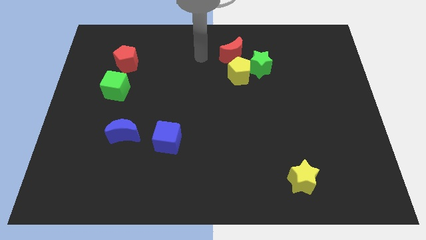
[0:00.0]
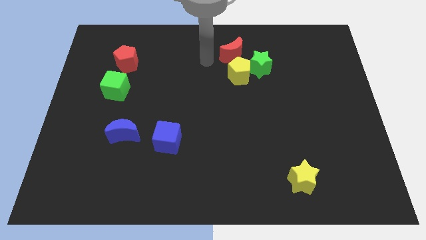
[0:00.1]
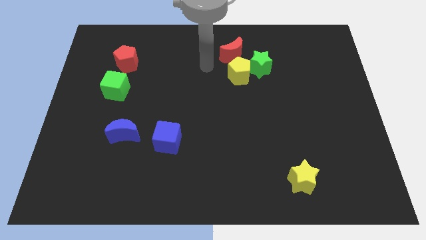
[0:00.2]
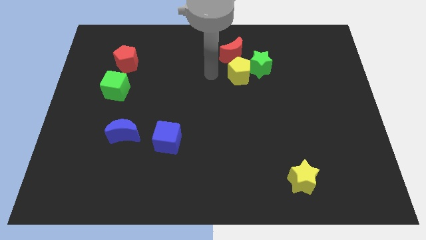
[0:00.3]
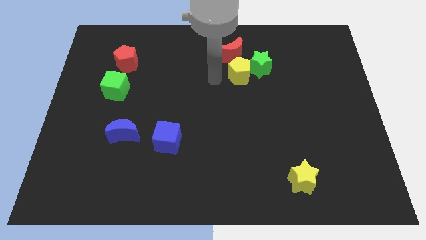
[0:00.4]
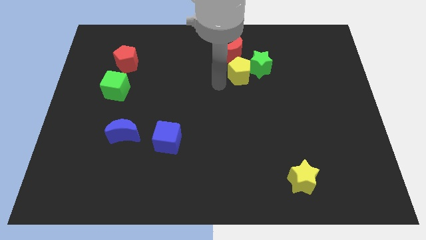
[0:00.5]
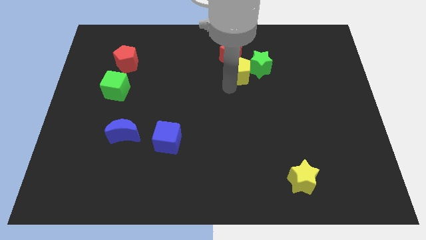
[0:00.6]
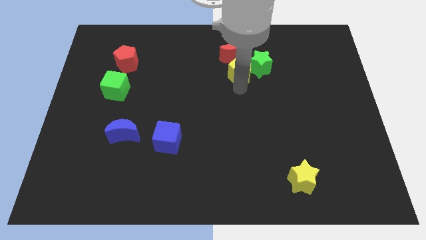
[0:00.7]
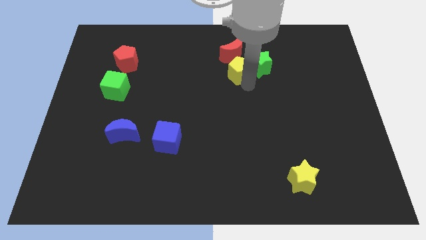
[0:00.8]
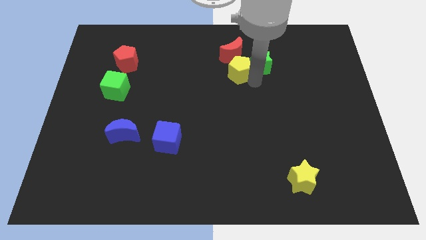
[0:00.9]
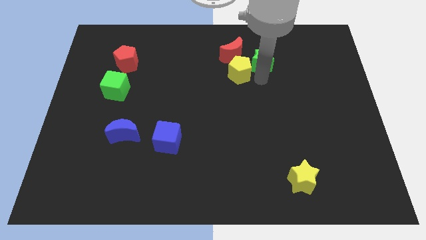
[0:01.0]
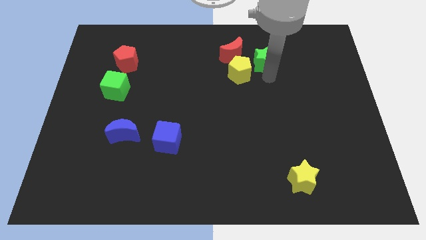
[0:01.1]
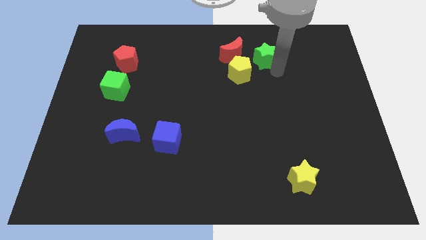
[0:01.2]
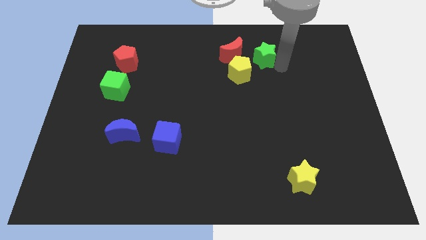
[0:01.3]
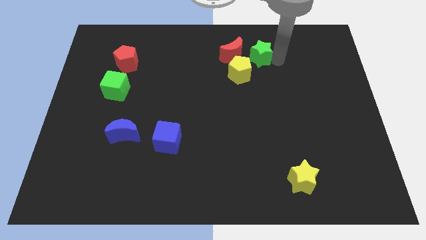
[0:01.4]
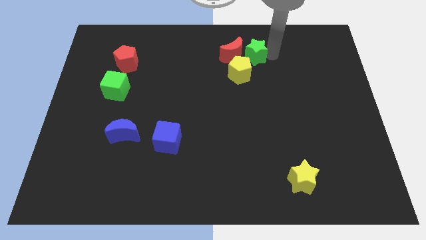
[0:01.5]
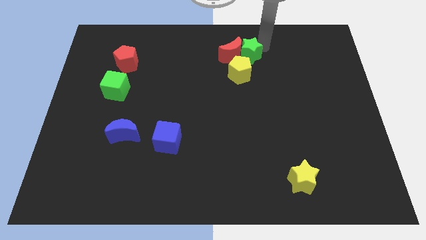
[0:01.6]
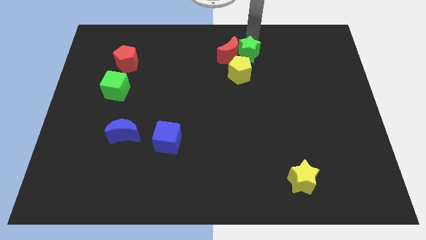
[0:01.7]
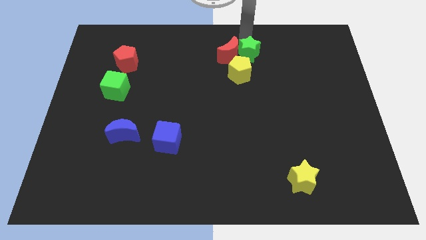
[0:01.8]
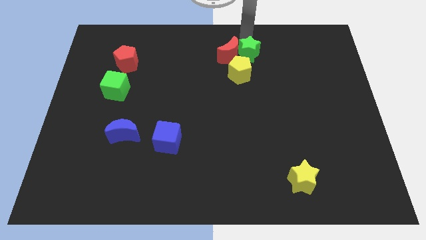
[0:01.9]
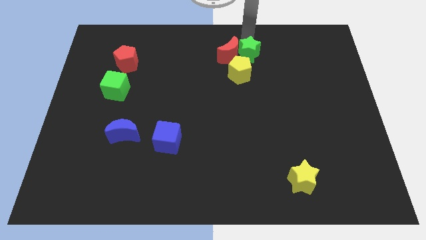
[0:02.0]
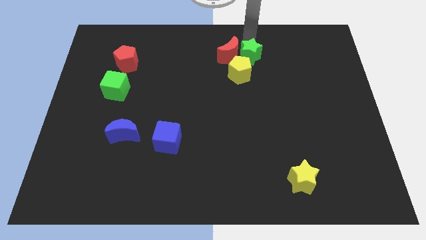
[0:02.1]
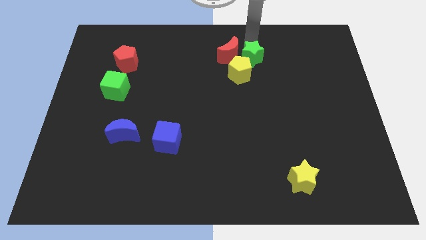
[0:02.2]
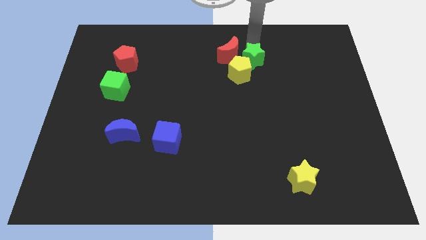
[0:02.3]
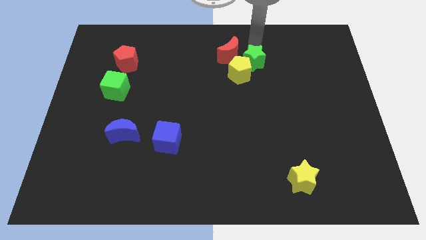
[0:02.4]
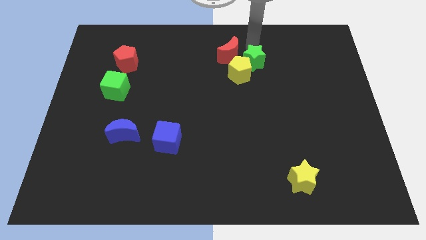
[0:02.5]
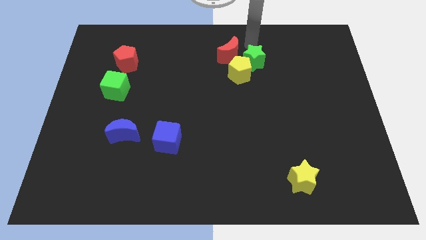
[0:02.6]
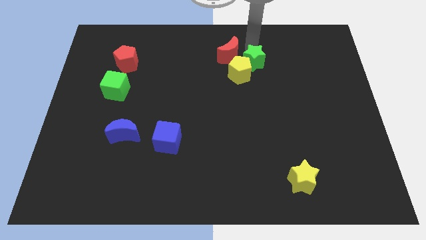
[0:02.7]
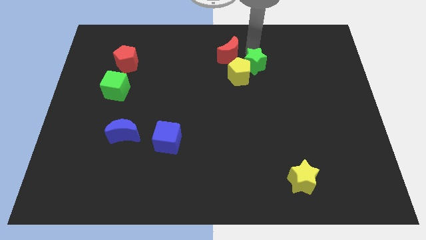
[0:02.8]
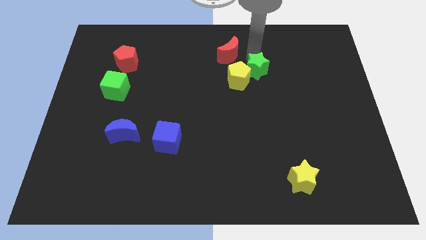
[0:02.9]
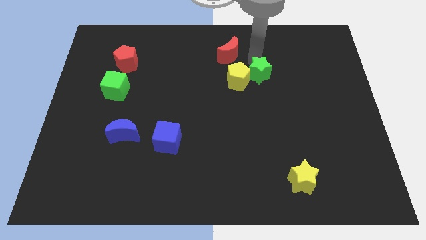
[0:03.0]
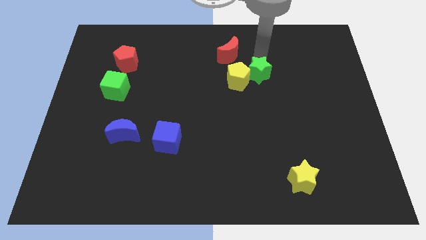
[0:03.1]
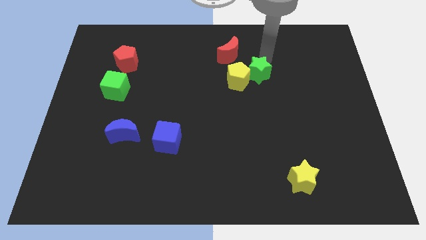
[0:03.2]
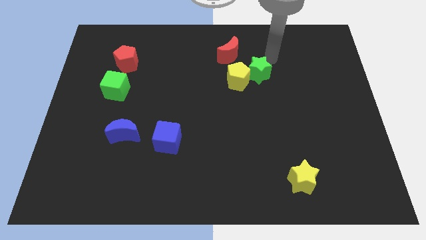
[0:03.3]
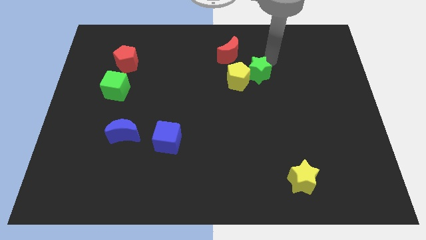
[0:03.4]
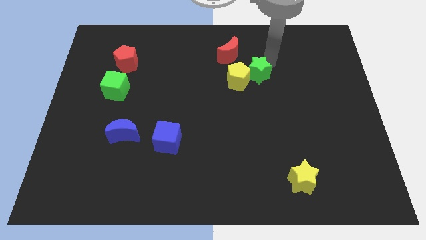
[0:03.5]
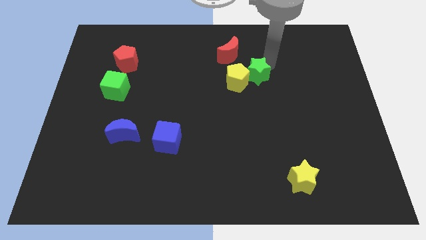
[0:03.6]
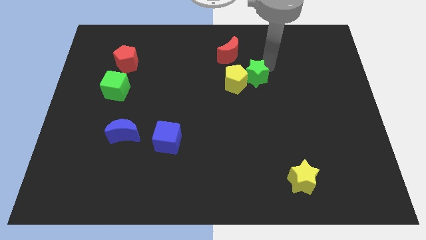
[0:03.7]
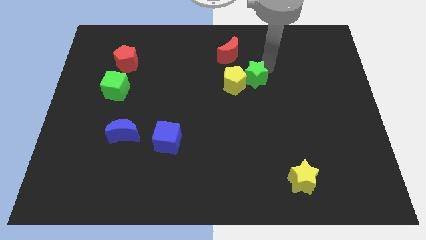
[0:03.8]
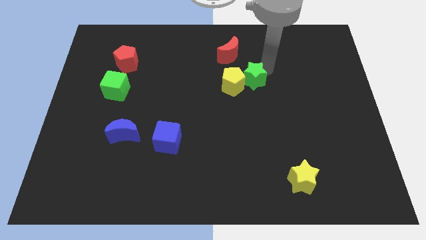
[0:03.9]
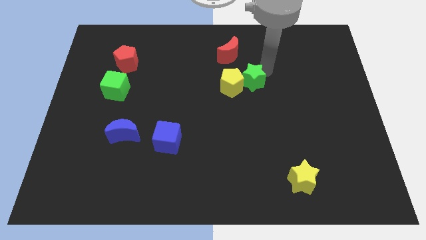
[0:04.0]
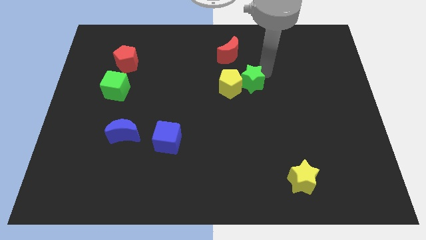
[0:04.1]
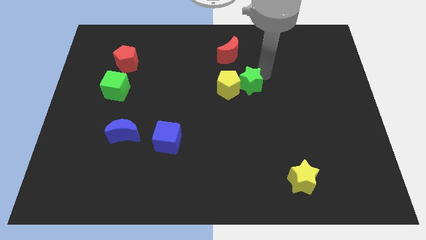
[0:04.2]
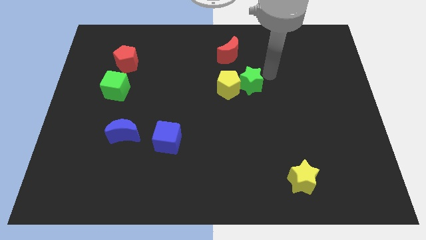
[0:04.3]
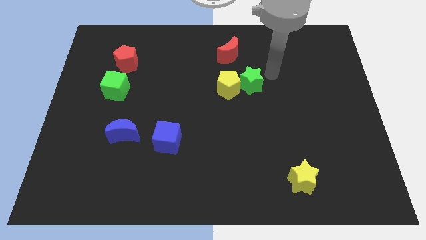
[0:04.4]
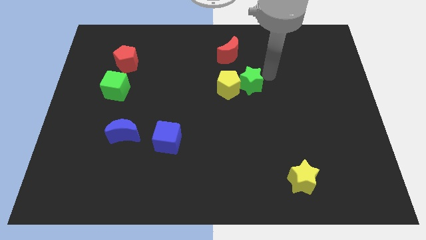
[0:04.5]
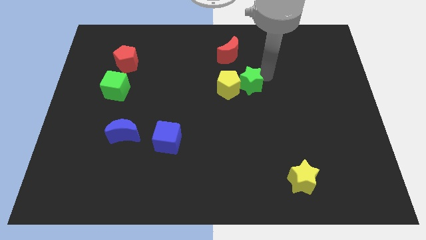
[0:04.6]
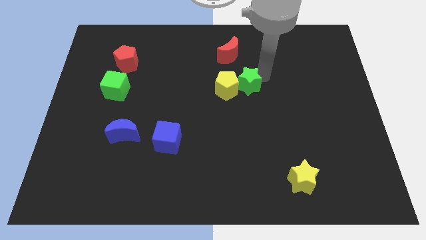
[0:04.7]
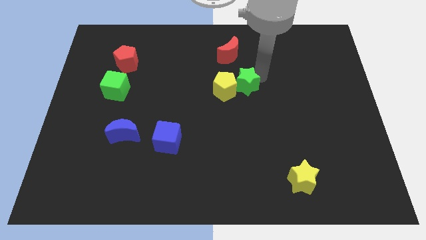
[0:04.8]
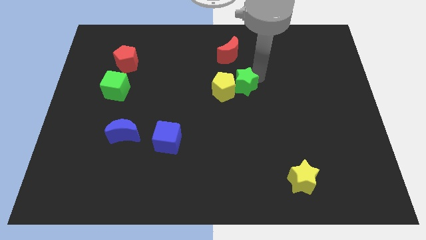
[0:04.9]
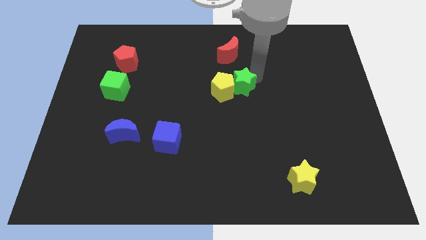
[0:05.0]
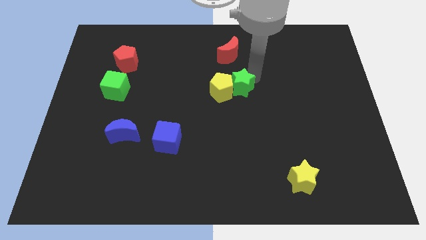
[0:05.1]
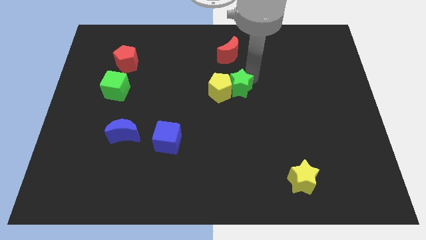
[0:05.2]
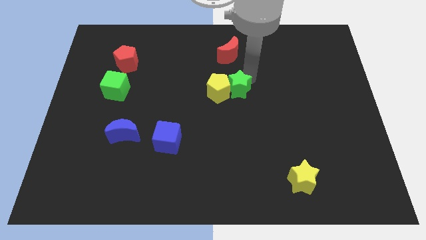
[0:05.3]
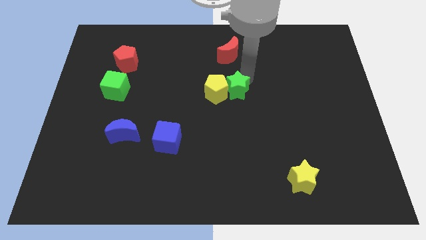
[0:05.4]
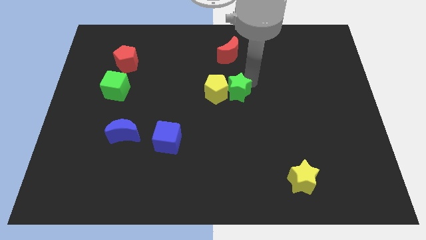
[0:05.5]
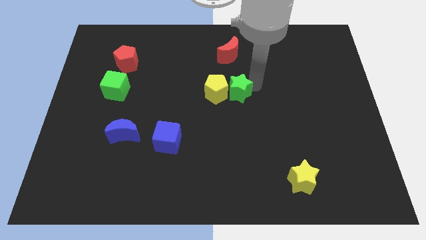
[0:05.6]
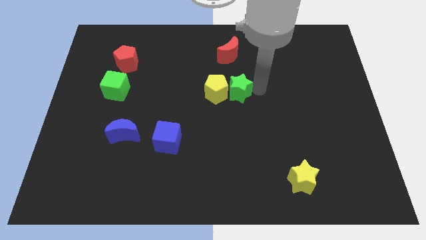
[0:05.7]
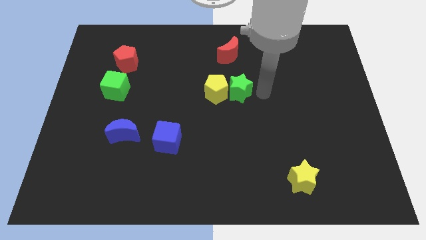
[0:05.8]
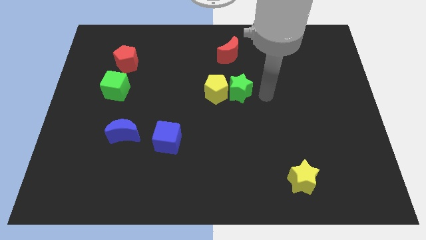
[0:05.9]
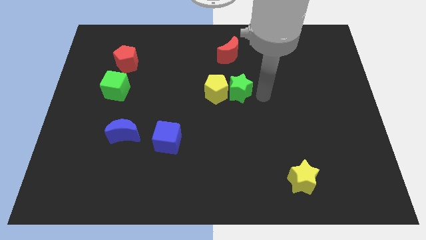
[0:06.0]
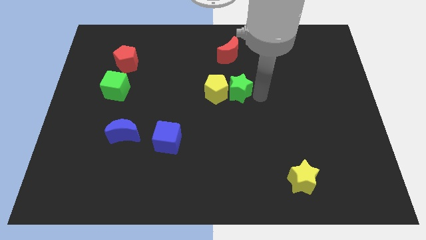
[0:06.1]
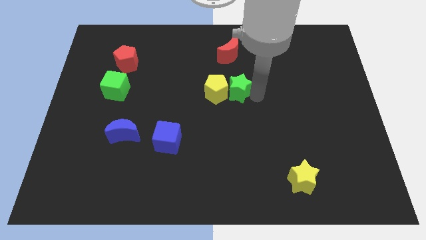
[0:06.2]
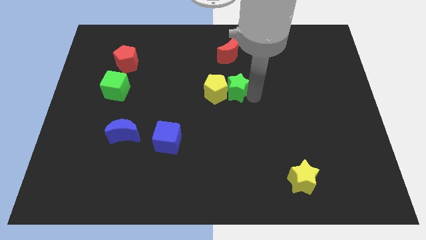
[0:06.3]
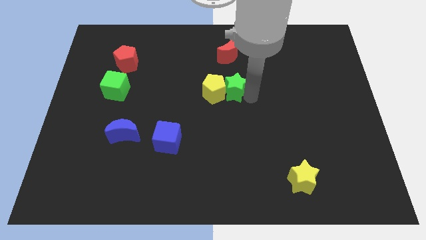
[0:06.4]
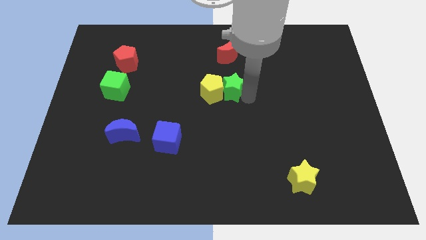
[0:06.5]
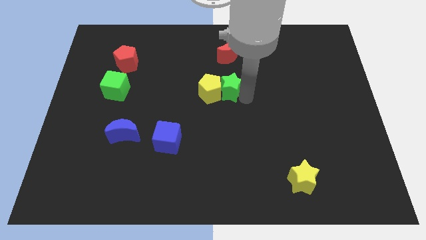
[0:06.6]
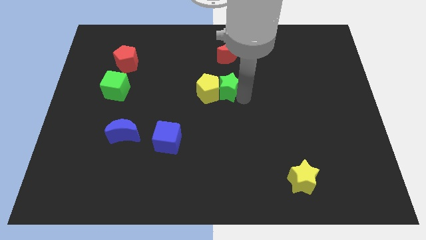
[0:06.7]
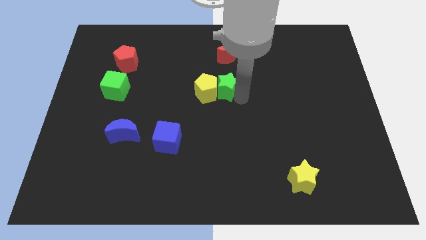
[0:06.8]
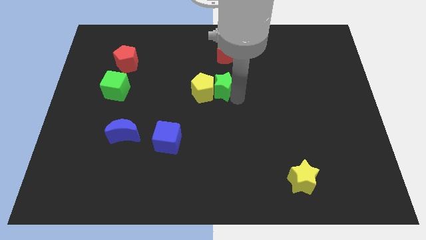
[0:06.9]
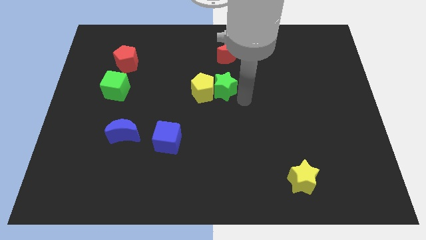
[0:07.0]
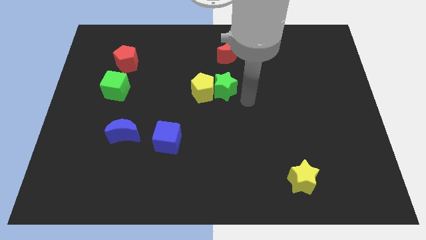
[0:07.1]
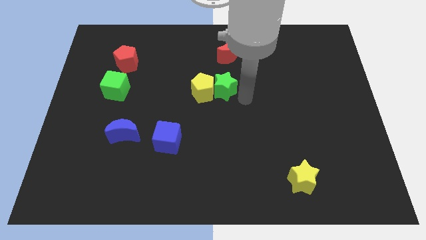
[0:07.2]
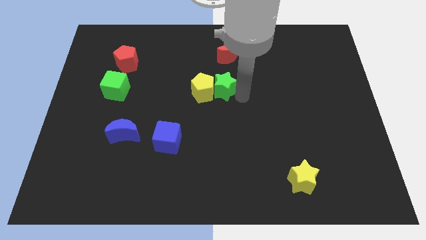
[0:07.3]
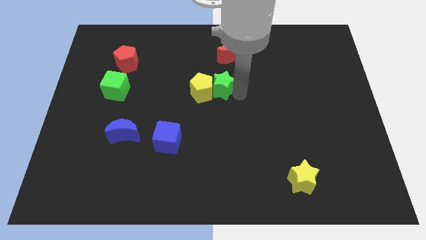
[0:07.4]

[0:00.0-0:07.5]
slightly push the green star left

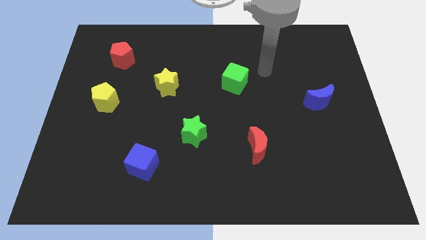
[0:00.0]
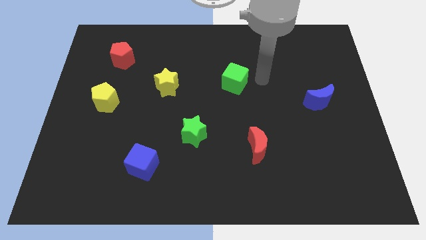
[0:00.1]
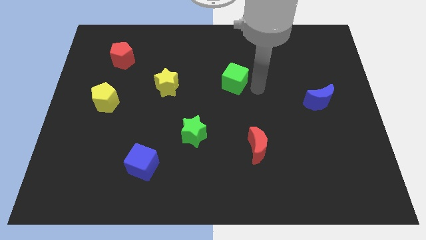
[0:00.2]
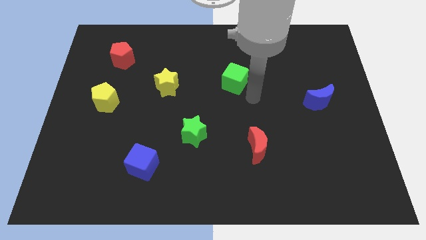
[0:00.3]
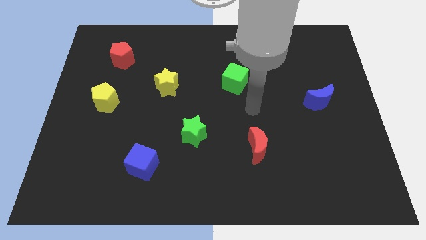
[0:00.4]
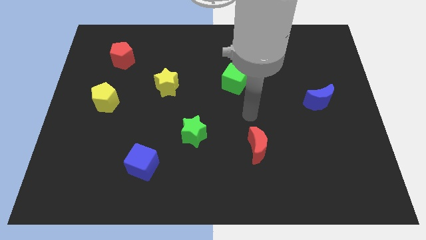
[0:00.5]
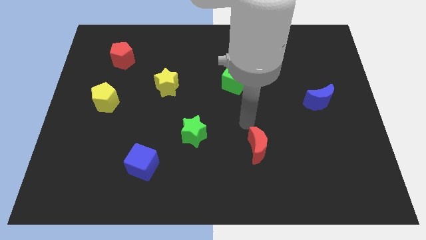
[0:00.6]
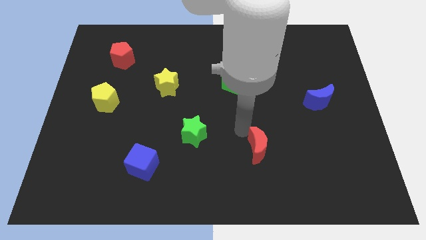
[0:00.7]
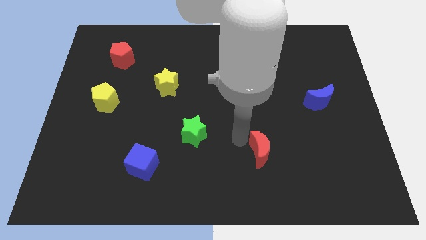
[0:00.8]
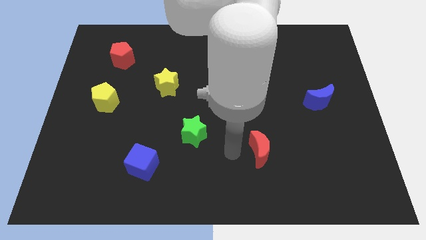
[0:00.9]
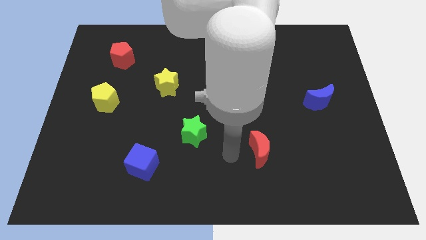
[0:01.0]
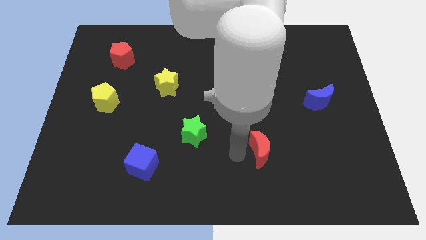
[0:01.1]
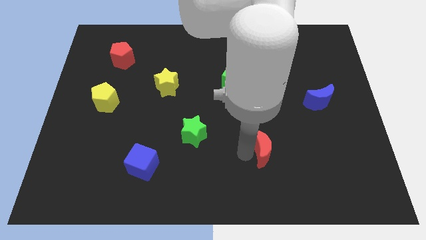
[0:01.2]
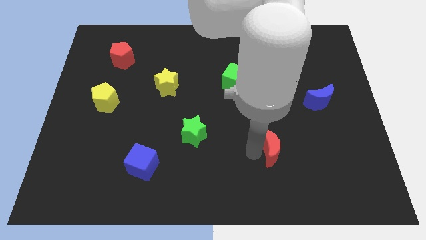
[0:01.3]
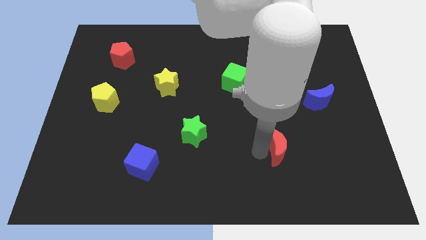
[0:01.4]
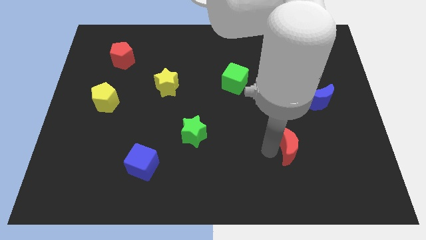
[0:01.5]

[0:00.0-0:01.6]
push the red moon a bit right
